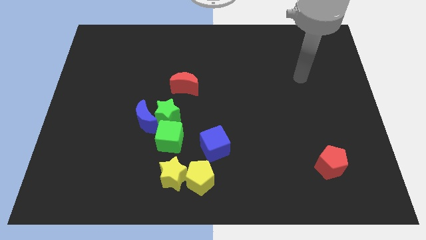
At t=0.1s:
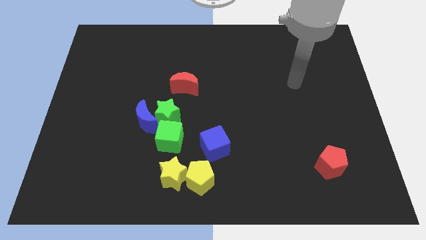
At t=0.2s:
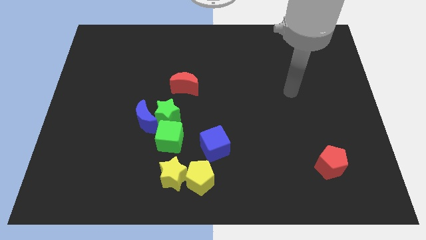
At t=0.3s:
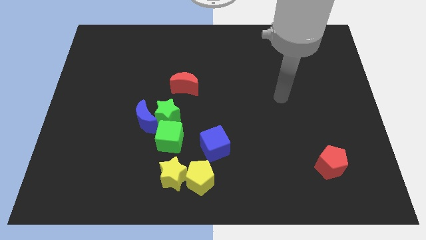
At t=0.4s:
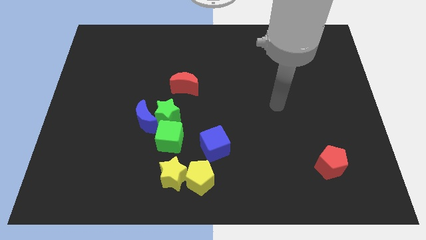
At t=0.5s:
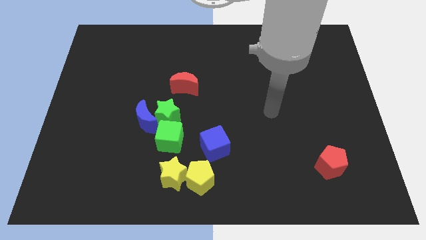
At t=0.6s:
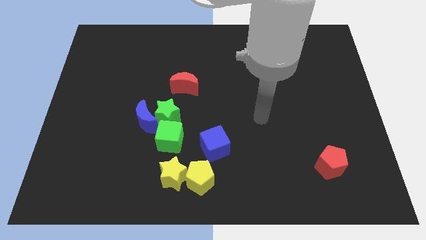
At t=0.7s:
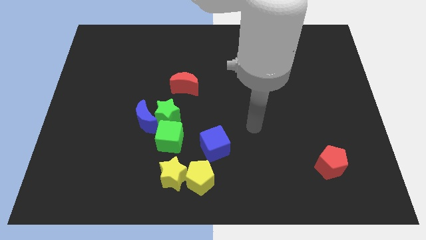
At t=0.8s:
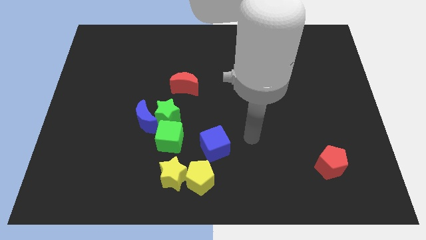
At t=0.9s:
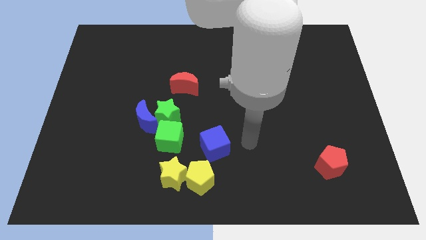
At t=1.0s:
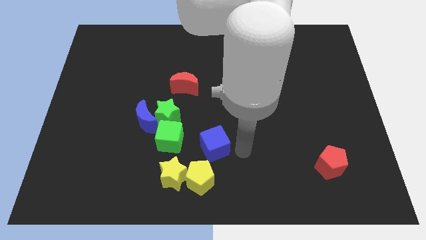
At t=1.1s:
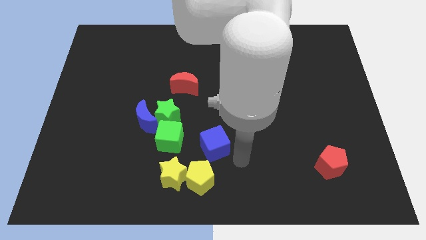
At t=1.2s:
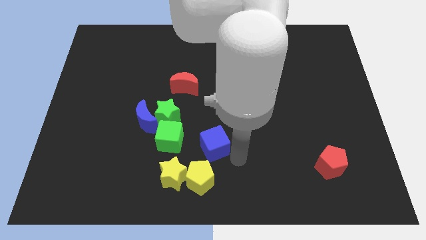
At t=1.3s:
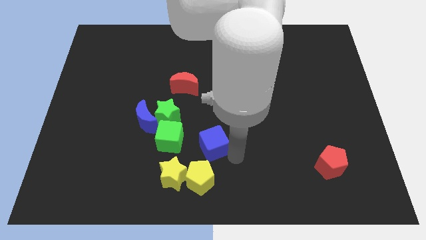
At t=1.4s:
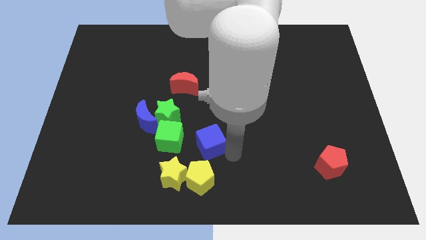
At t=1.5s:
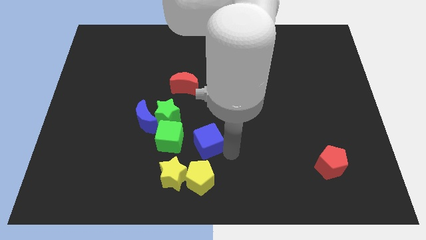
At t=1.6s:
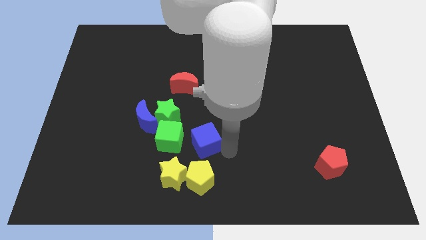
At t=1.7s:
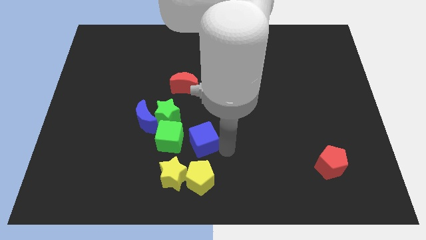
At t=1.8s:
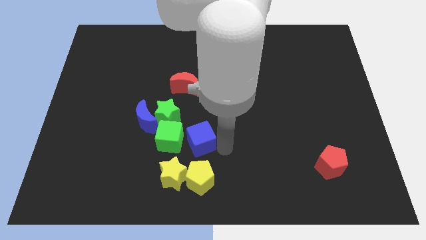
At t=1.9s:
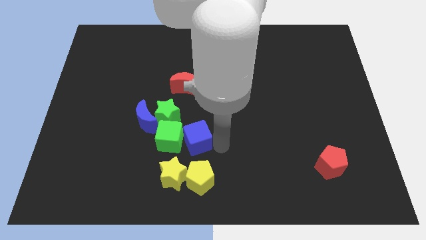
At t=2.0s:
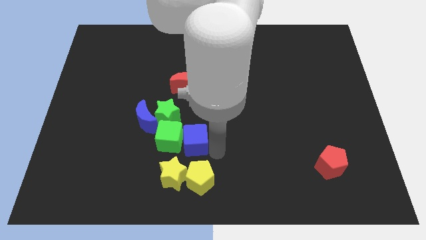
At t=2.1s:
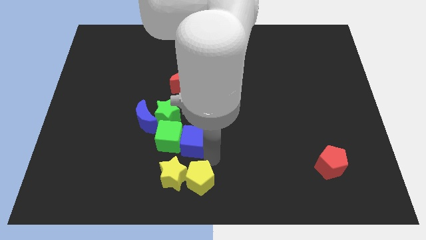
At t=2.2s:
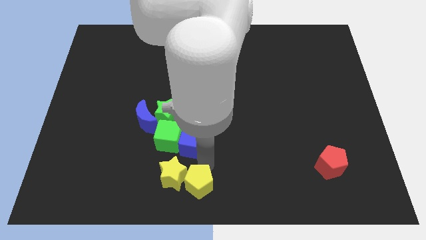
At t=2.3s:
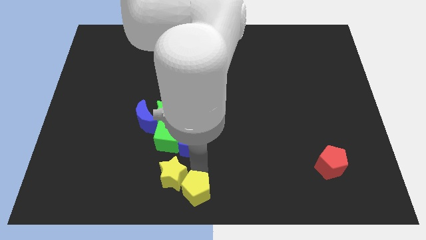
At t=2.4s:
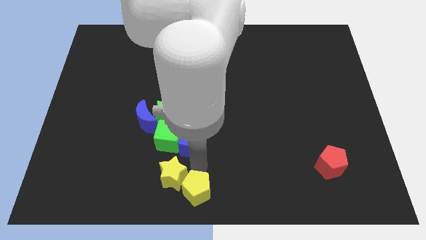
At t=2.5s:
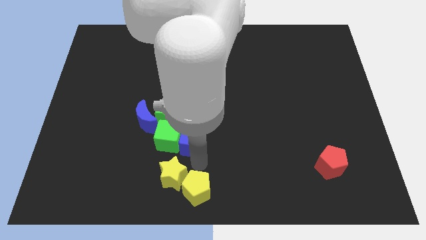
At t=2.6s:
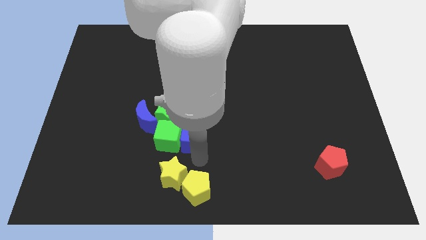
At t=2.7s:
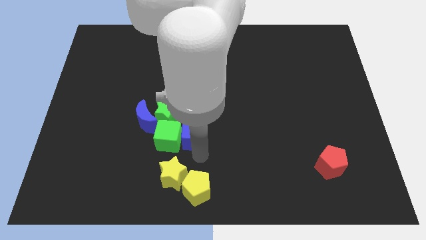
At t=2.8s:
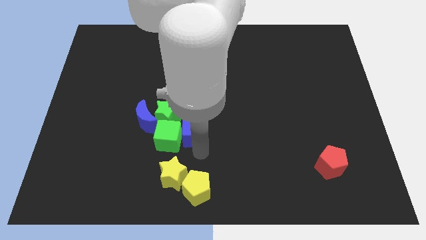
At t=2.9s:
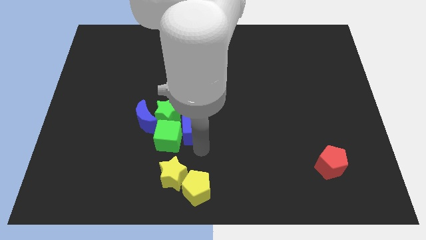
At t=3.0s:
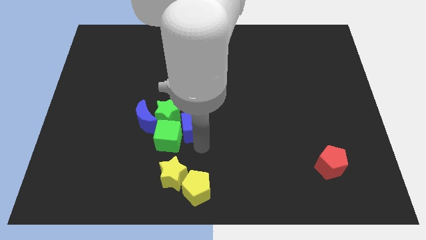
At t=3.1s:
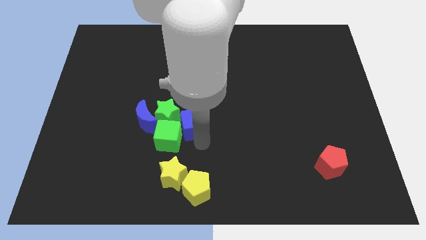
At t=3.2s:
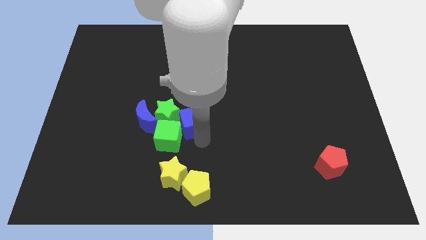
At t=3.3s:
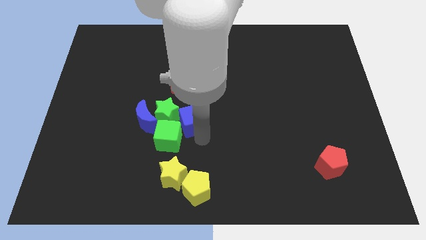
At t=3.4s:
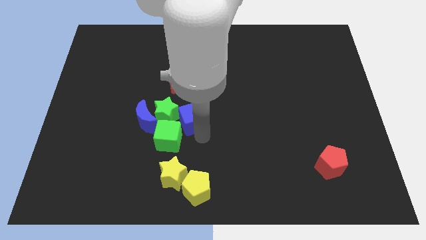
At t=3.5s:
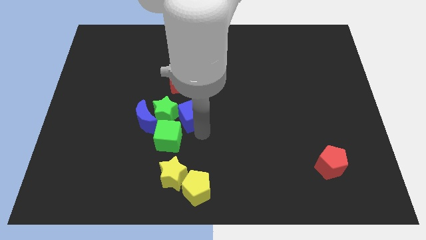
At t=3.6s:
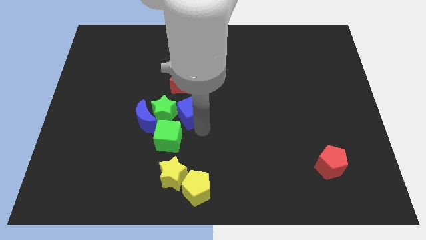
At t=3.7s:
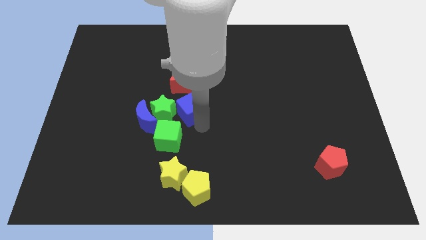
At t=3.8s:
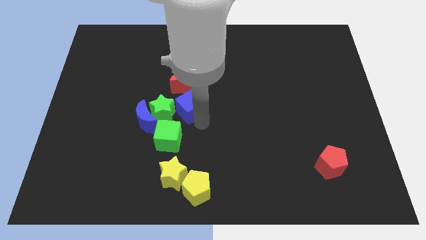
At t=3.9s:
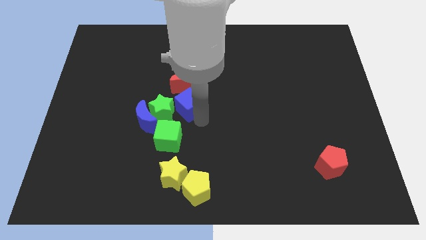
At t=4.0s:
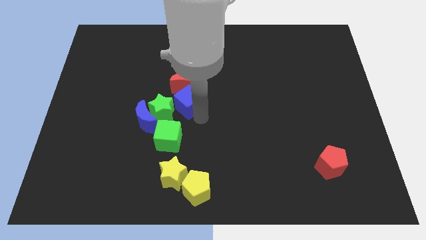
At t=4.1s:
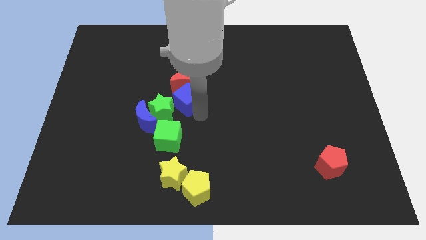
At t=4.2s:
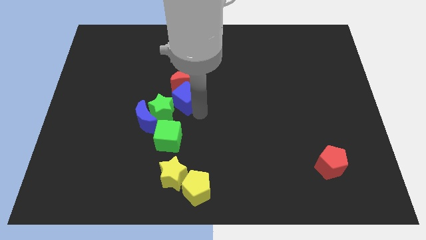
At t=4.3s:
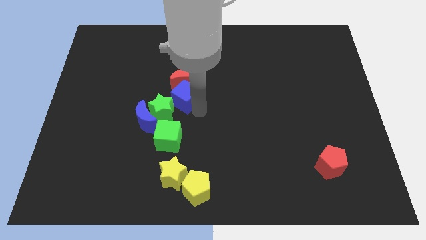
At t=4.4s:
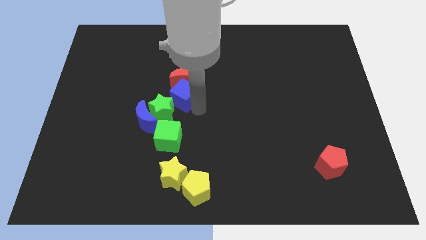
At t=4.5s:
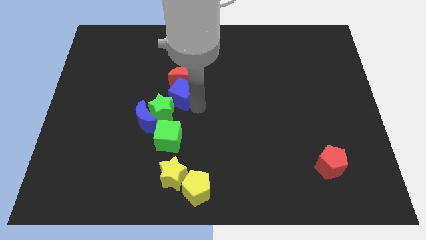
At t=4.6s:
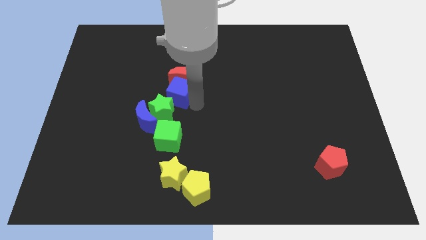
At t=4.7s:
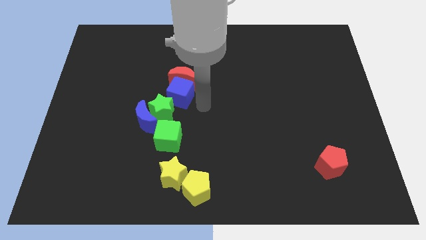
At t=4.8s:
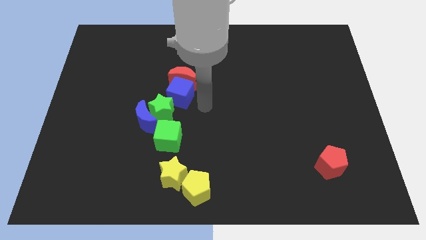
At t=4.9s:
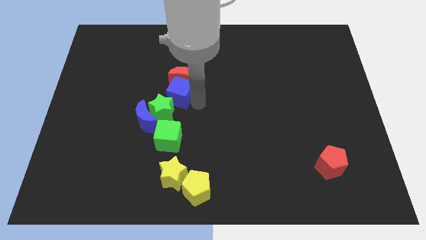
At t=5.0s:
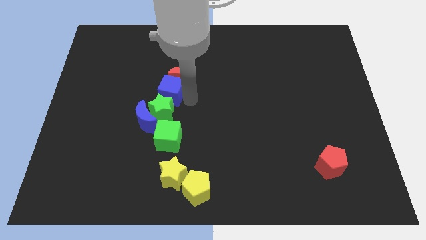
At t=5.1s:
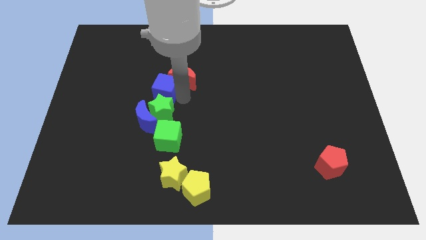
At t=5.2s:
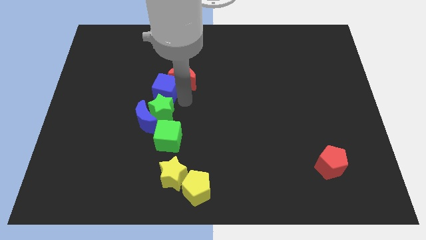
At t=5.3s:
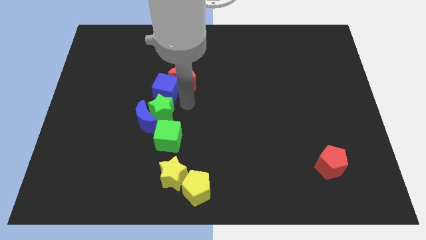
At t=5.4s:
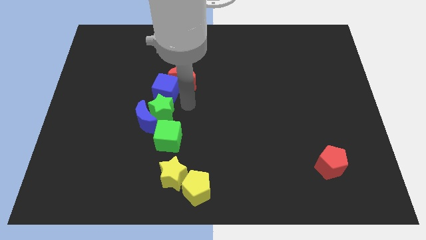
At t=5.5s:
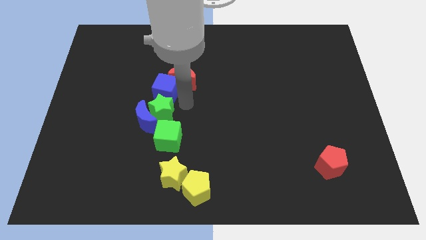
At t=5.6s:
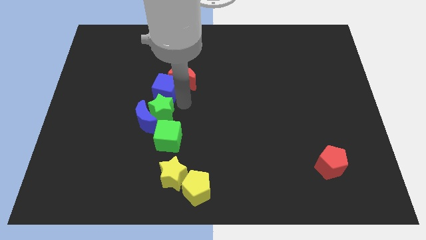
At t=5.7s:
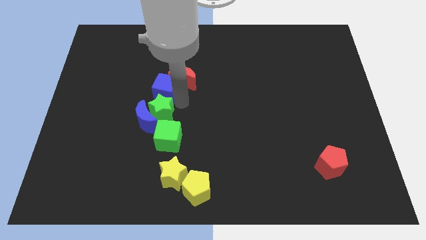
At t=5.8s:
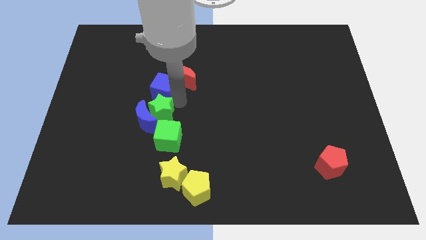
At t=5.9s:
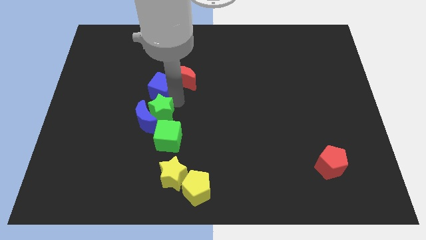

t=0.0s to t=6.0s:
move the blue cube upwards and to the left diagonally

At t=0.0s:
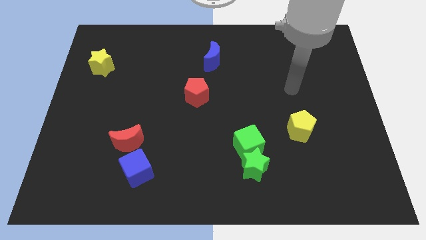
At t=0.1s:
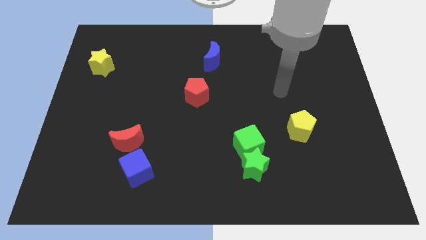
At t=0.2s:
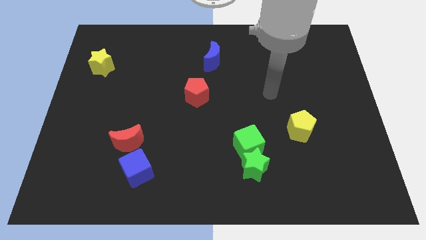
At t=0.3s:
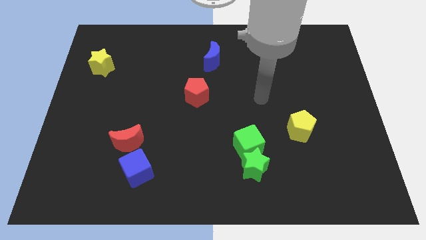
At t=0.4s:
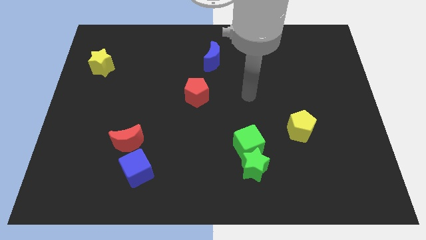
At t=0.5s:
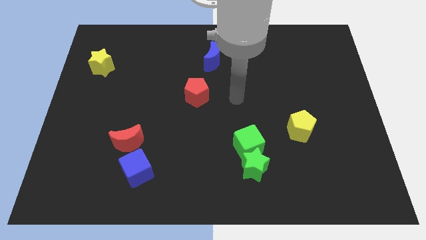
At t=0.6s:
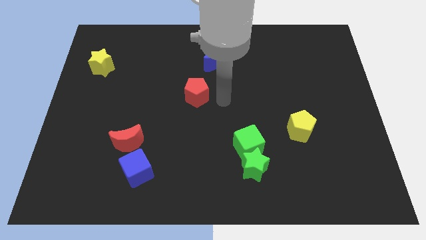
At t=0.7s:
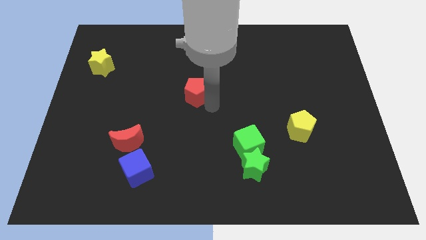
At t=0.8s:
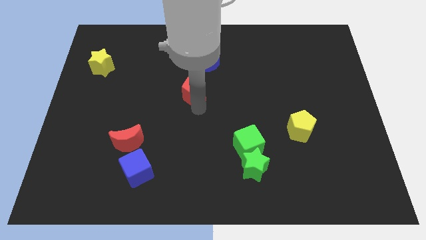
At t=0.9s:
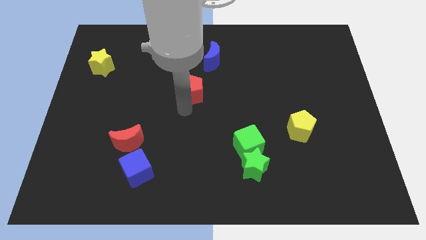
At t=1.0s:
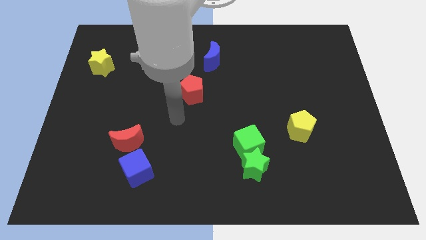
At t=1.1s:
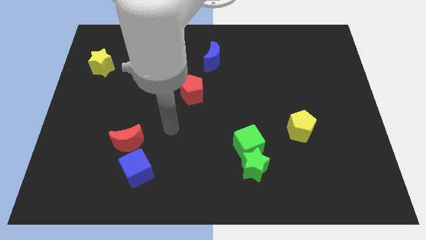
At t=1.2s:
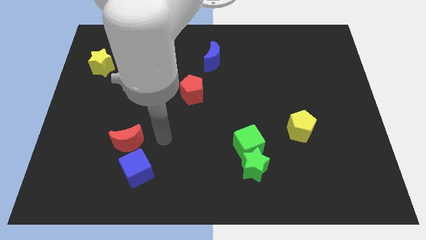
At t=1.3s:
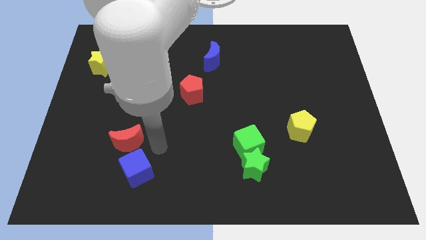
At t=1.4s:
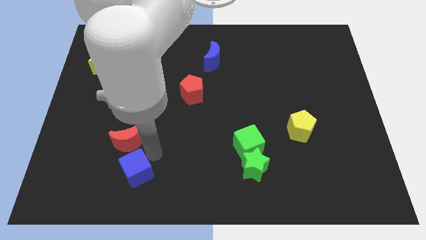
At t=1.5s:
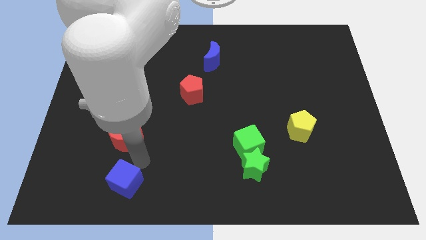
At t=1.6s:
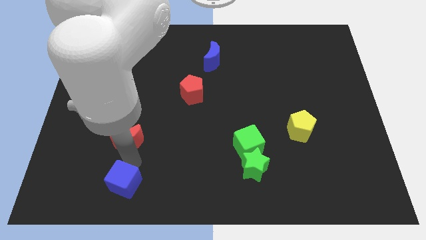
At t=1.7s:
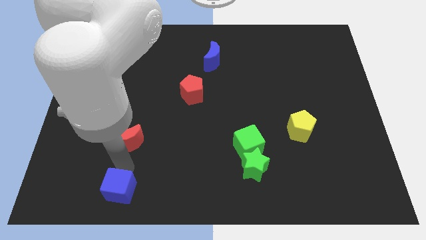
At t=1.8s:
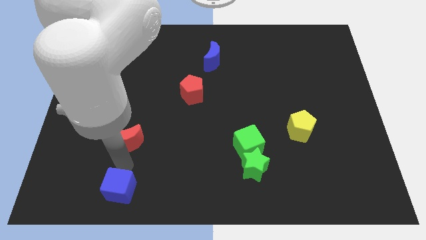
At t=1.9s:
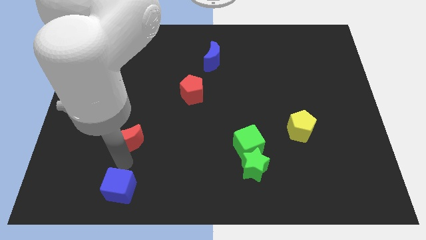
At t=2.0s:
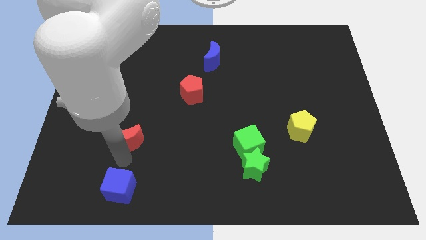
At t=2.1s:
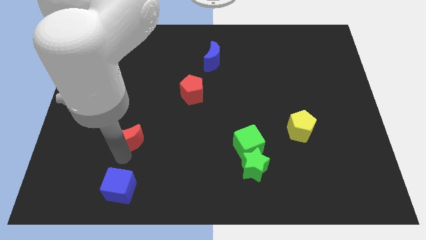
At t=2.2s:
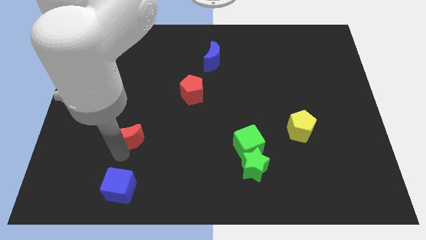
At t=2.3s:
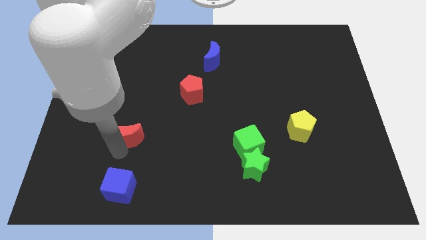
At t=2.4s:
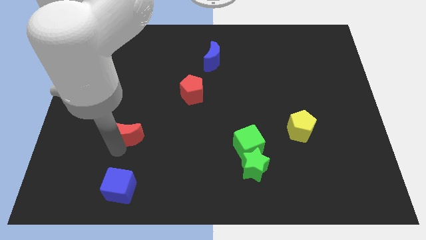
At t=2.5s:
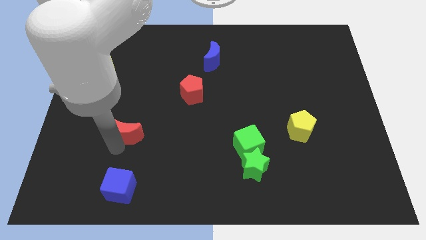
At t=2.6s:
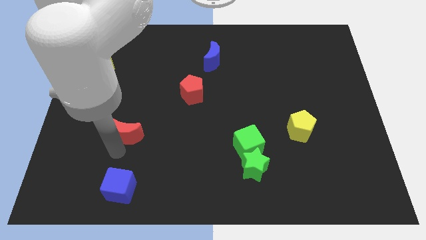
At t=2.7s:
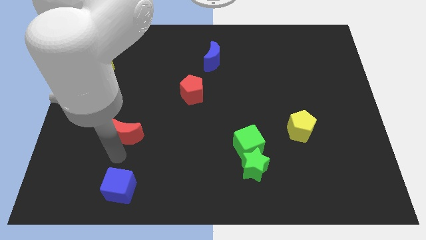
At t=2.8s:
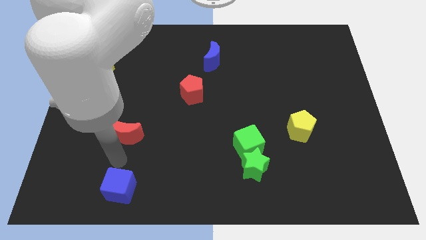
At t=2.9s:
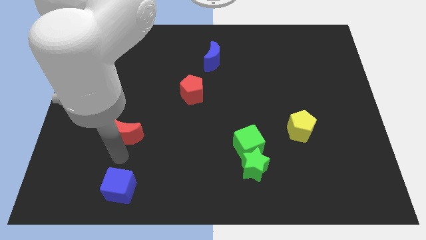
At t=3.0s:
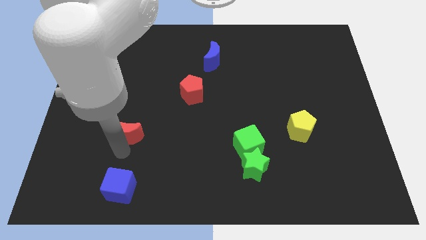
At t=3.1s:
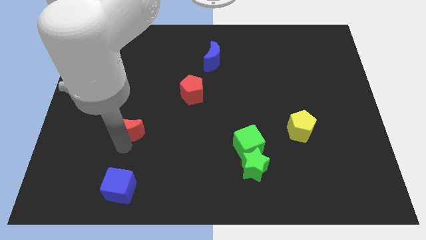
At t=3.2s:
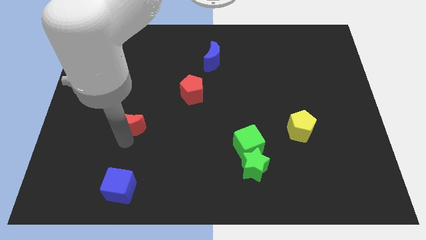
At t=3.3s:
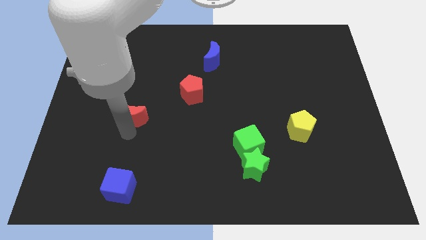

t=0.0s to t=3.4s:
push the red moon upwards somewhat
